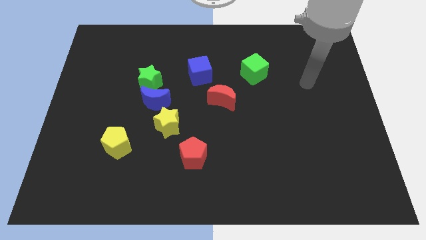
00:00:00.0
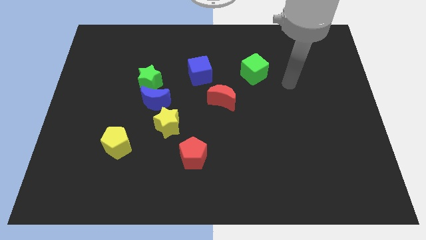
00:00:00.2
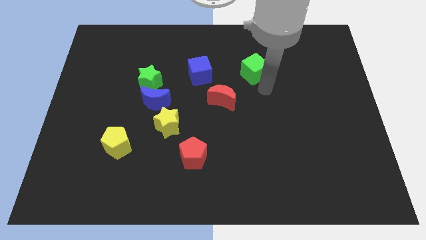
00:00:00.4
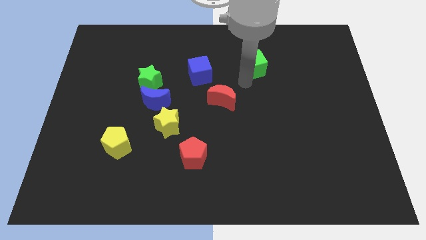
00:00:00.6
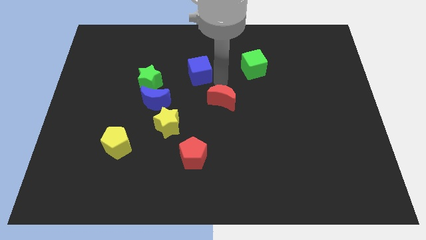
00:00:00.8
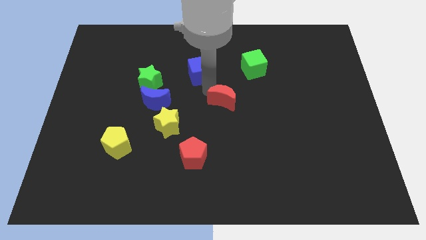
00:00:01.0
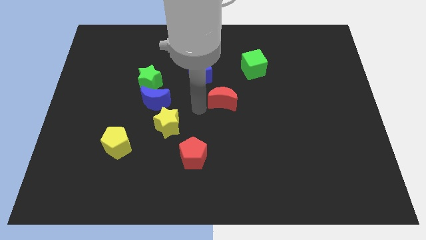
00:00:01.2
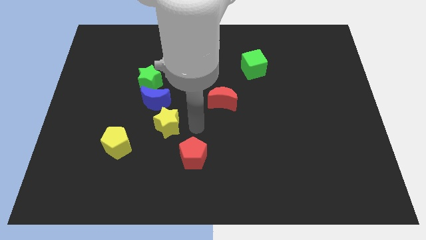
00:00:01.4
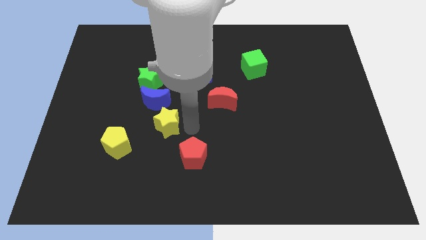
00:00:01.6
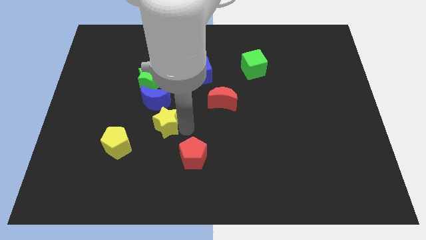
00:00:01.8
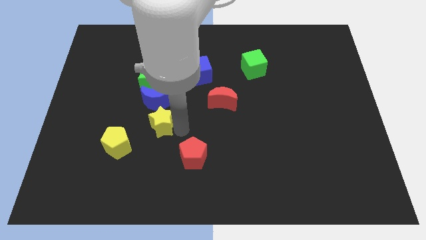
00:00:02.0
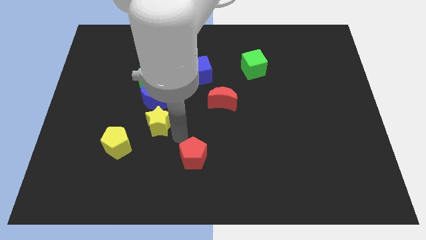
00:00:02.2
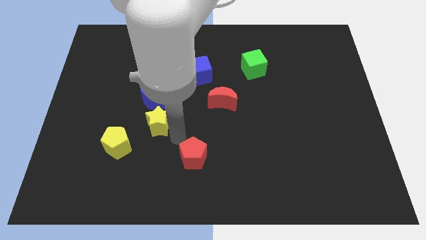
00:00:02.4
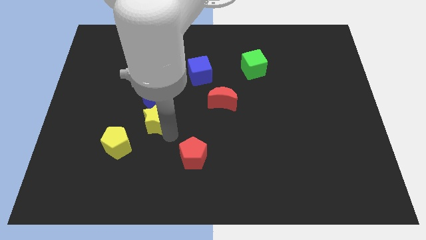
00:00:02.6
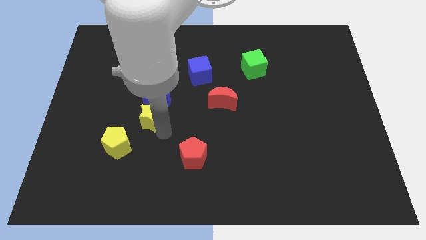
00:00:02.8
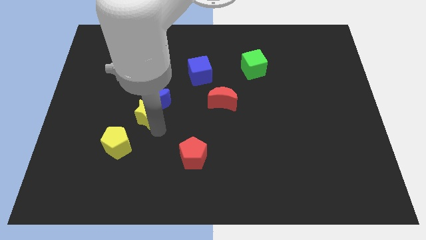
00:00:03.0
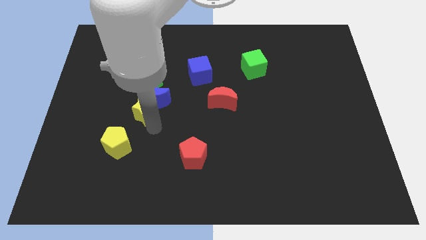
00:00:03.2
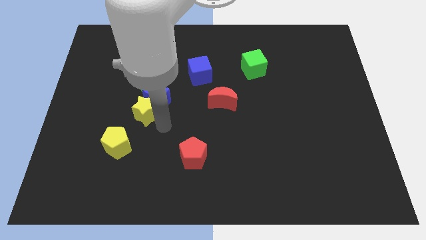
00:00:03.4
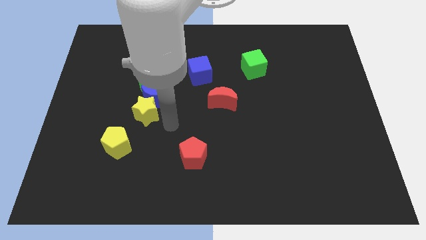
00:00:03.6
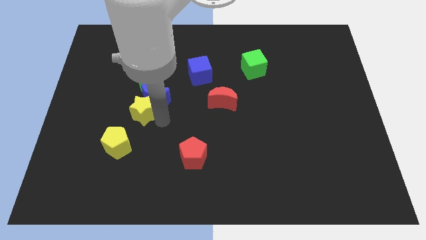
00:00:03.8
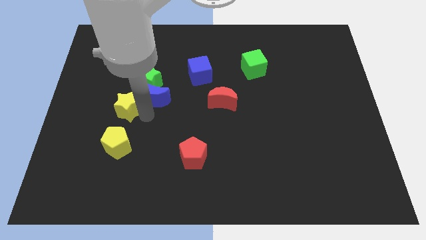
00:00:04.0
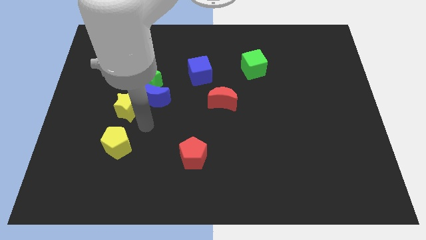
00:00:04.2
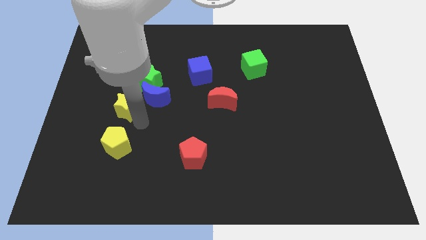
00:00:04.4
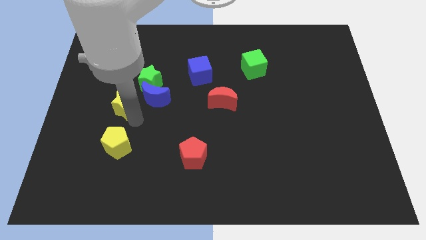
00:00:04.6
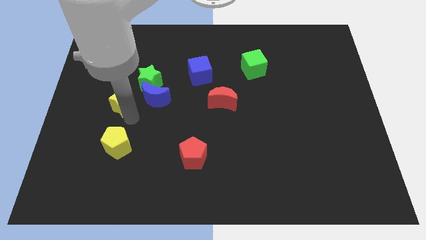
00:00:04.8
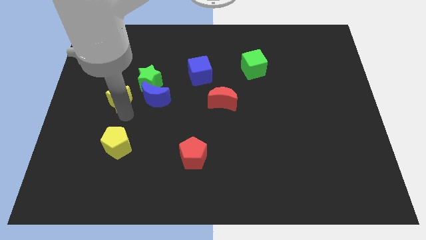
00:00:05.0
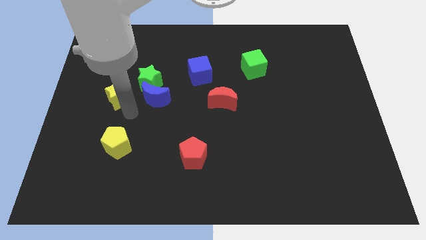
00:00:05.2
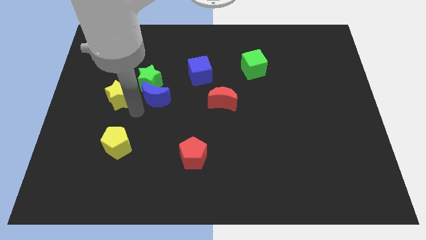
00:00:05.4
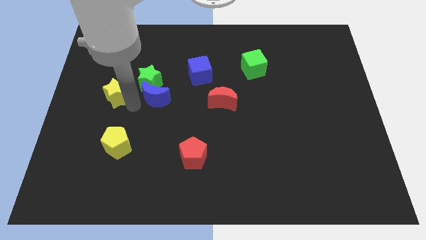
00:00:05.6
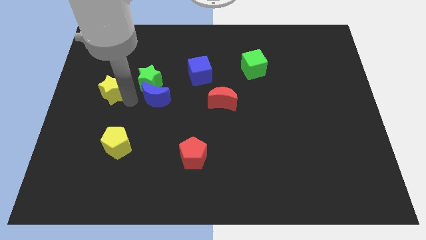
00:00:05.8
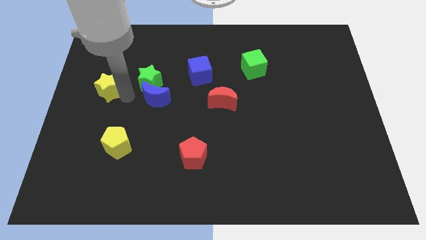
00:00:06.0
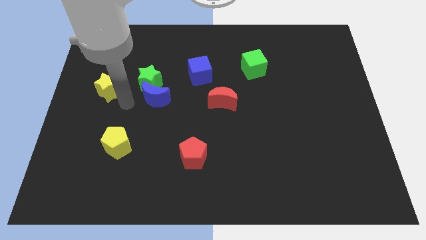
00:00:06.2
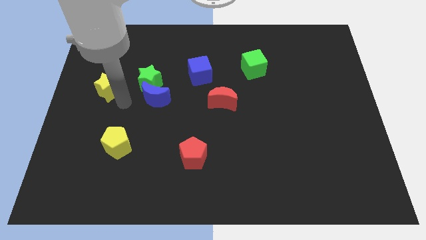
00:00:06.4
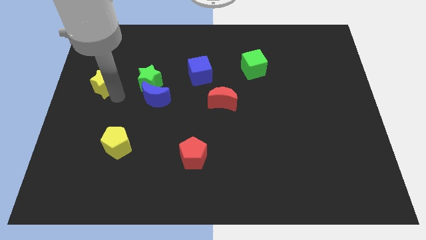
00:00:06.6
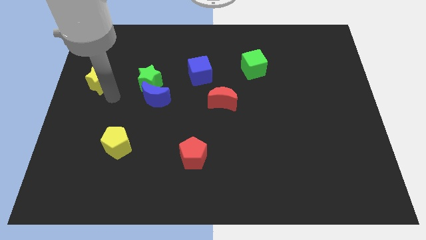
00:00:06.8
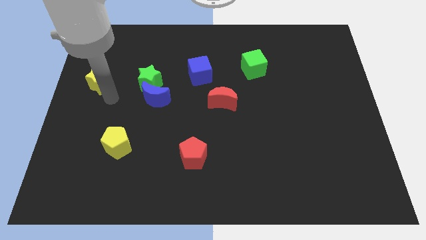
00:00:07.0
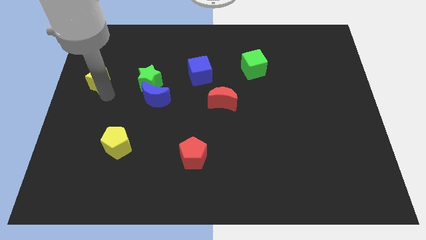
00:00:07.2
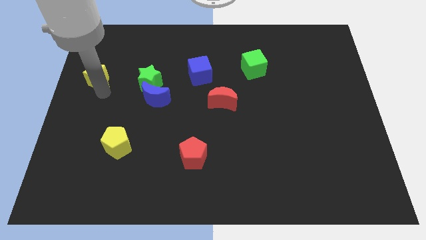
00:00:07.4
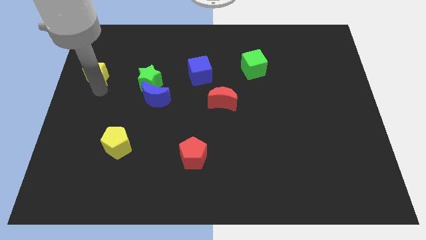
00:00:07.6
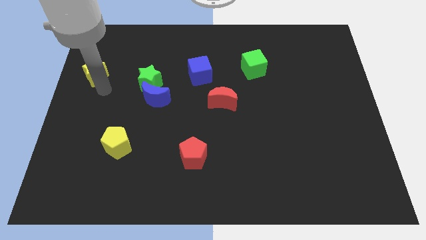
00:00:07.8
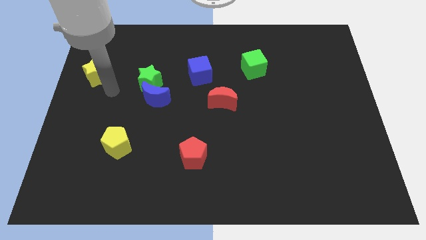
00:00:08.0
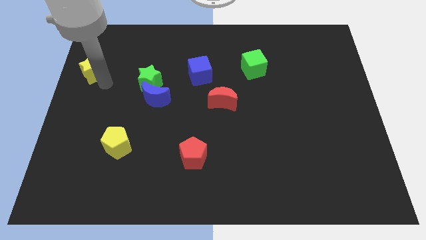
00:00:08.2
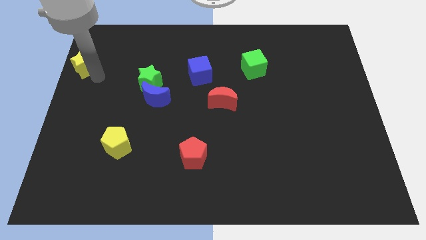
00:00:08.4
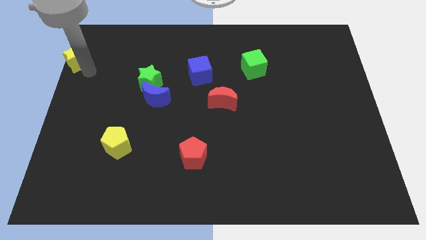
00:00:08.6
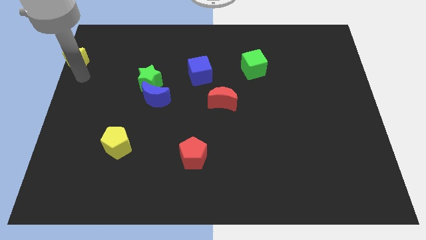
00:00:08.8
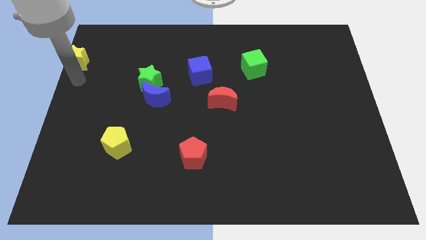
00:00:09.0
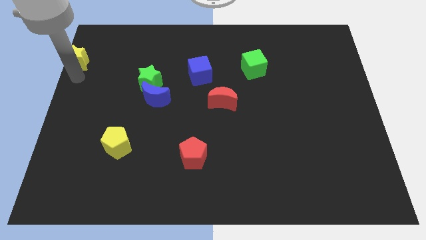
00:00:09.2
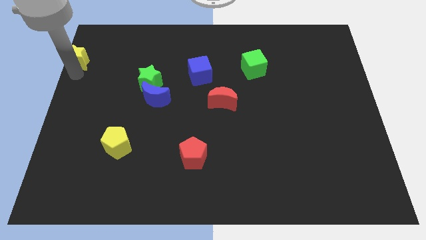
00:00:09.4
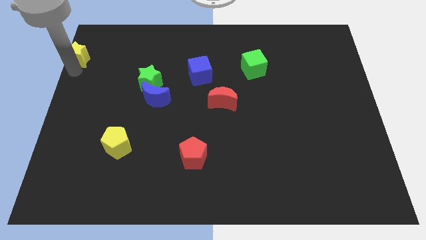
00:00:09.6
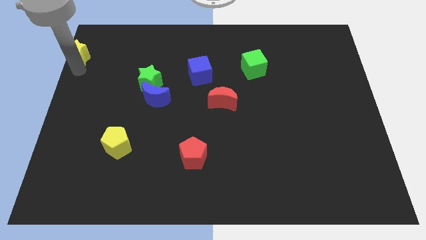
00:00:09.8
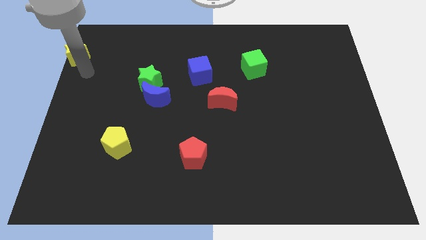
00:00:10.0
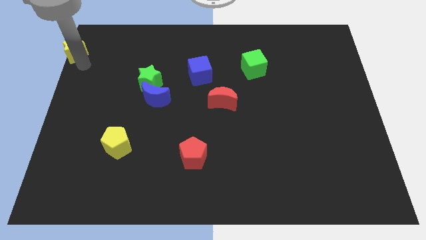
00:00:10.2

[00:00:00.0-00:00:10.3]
slide the yellow star to the top left corner
